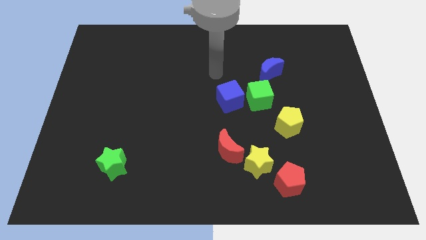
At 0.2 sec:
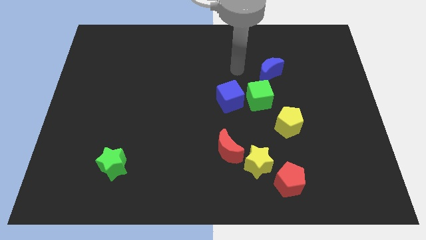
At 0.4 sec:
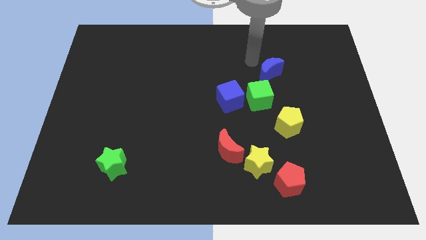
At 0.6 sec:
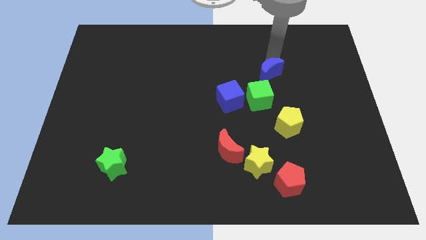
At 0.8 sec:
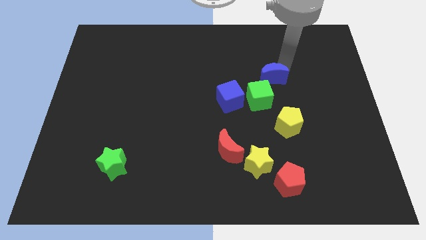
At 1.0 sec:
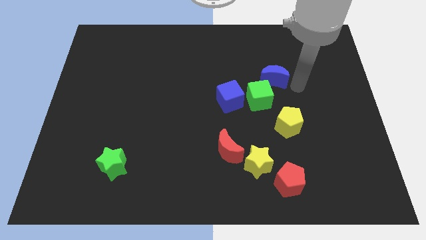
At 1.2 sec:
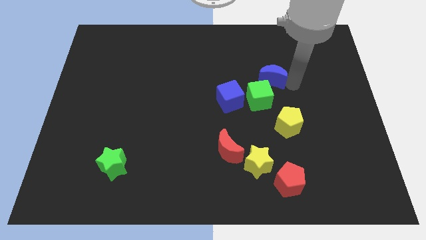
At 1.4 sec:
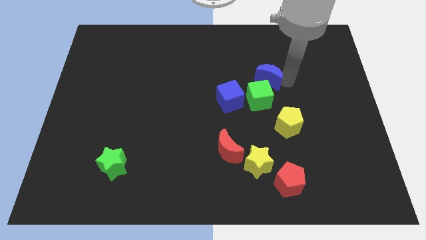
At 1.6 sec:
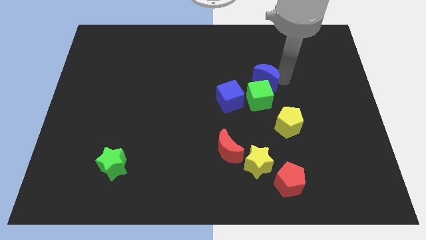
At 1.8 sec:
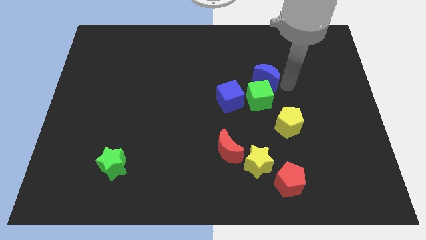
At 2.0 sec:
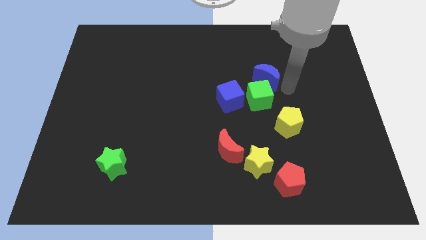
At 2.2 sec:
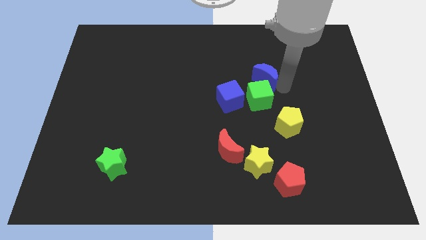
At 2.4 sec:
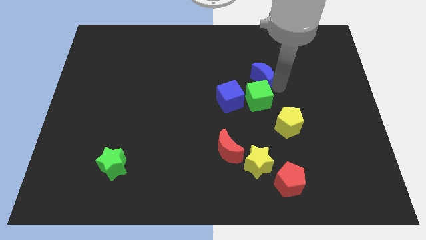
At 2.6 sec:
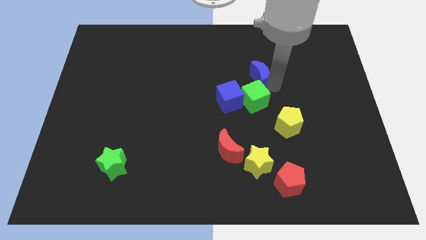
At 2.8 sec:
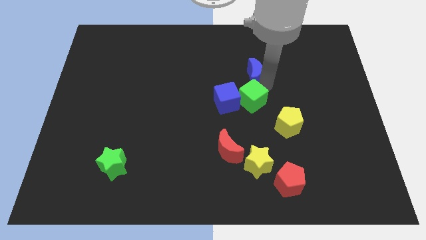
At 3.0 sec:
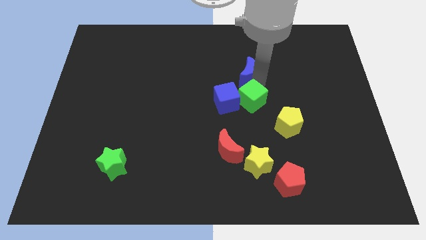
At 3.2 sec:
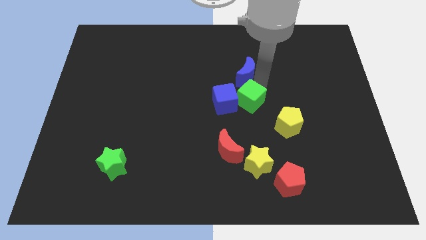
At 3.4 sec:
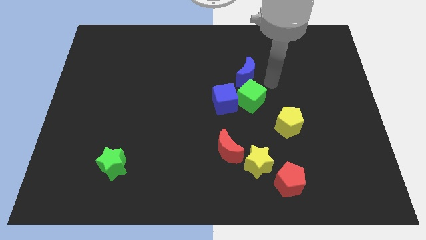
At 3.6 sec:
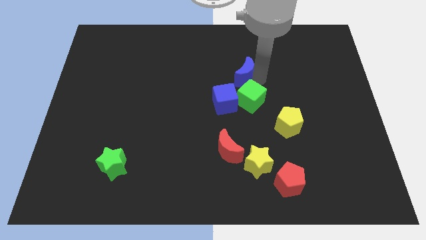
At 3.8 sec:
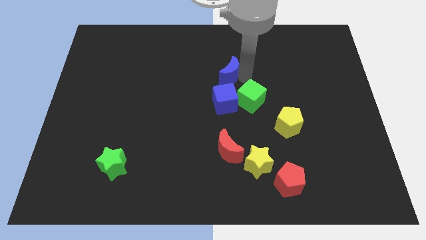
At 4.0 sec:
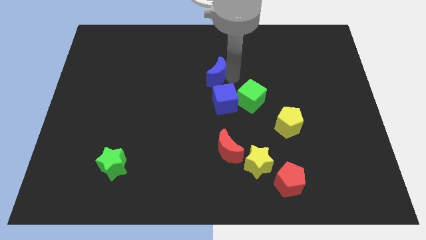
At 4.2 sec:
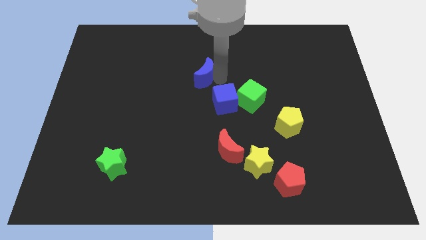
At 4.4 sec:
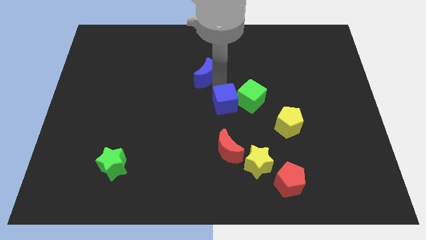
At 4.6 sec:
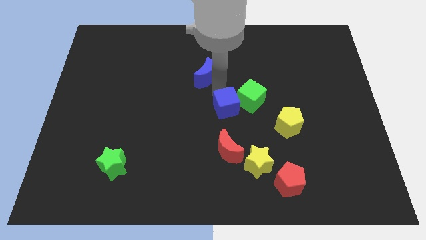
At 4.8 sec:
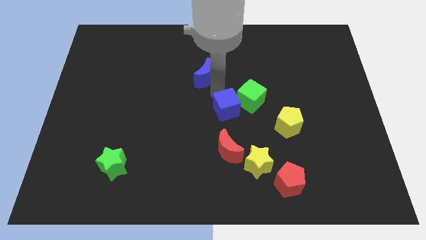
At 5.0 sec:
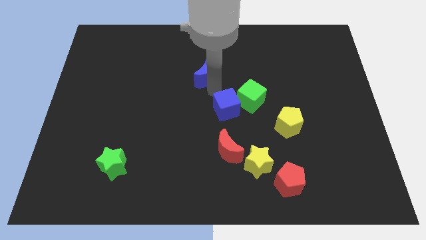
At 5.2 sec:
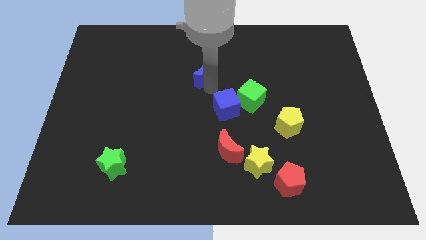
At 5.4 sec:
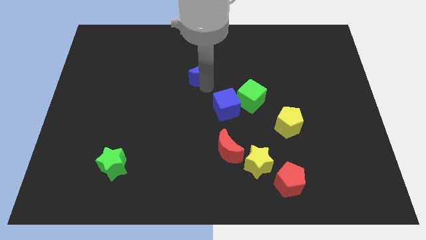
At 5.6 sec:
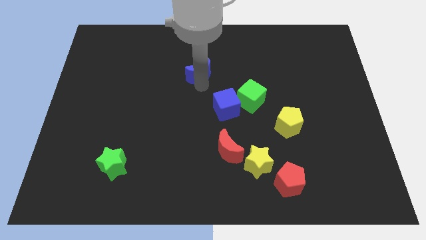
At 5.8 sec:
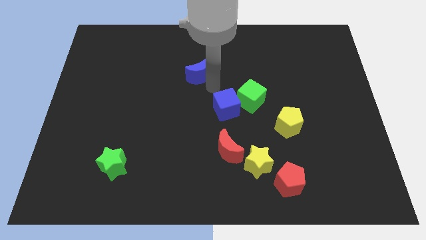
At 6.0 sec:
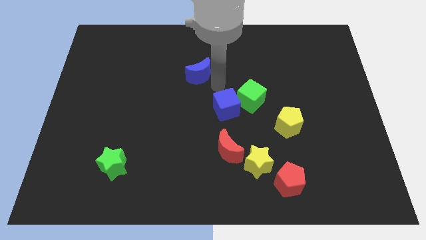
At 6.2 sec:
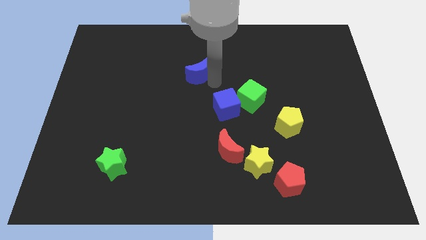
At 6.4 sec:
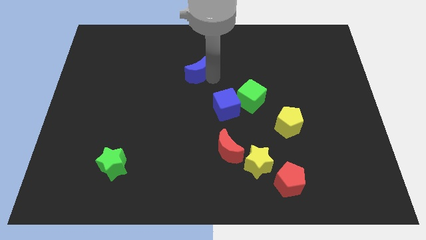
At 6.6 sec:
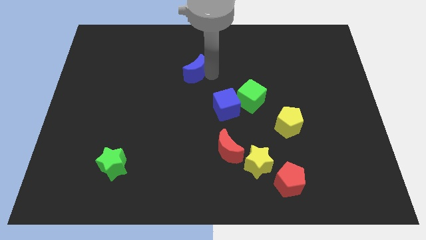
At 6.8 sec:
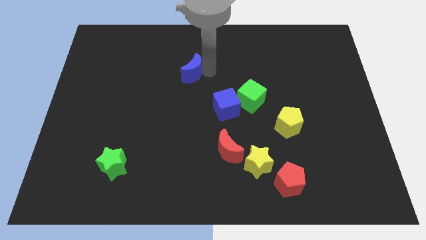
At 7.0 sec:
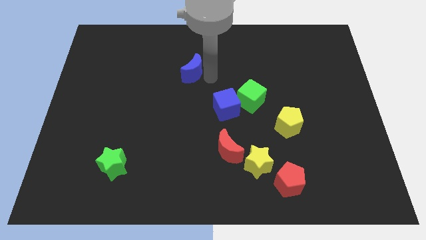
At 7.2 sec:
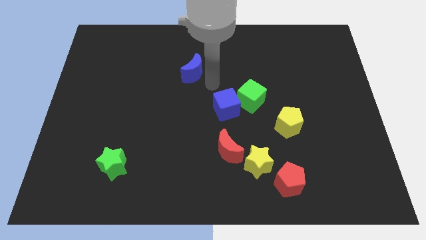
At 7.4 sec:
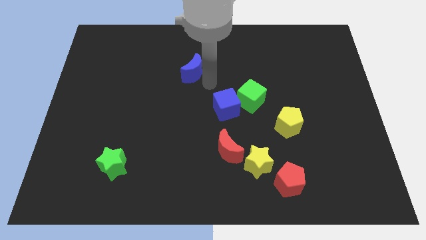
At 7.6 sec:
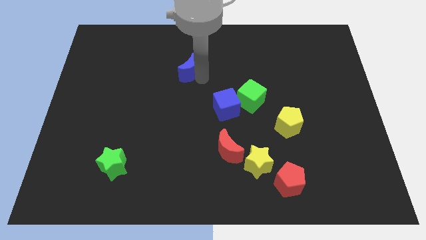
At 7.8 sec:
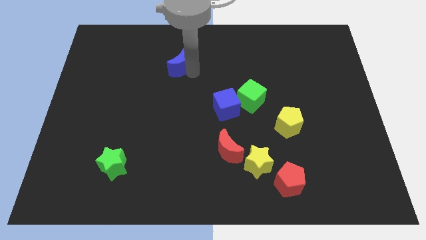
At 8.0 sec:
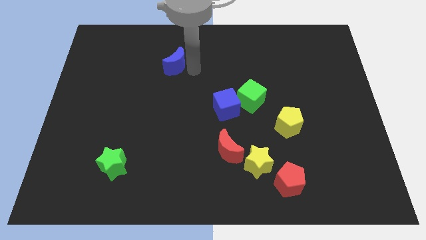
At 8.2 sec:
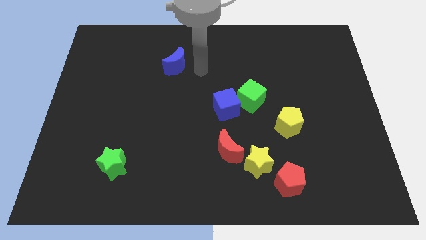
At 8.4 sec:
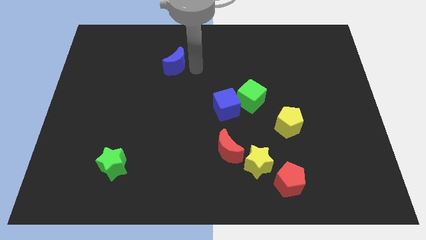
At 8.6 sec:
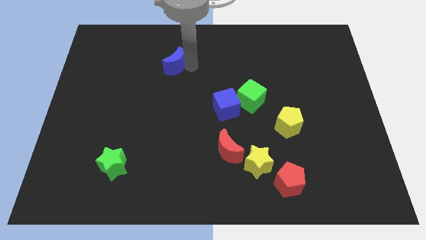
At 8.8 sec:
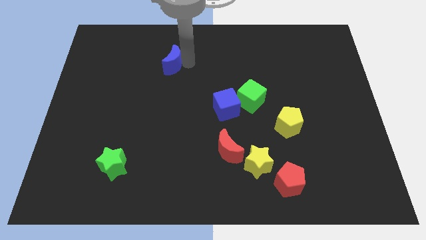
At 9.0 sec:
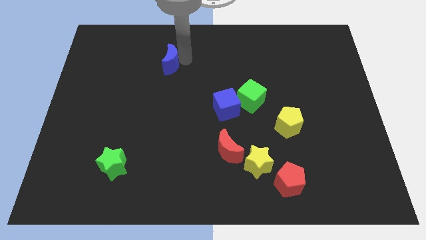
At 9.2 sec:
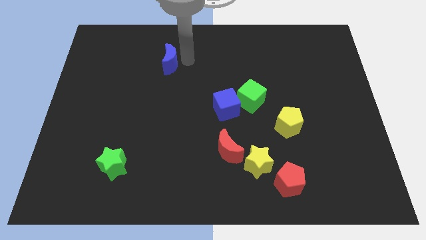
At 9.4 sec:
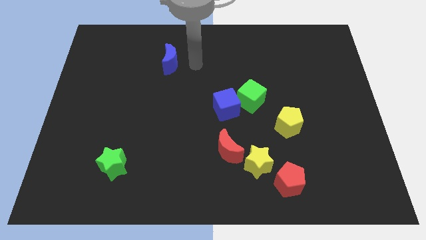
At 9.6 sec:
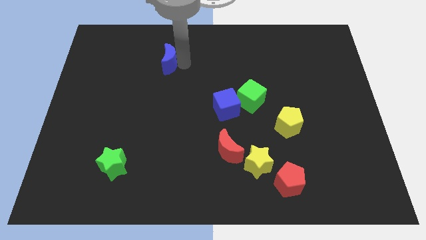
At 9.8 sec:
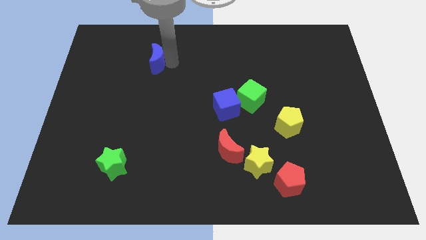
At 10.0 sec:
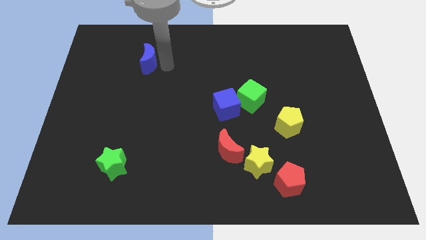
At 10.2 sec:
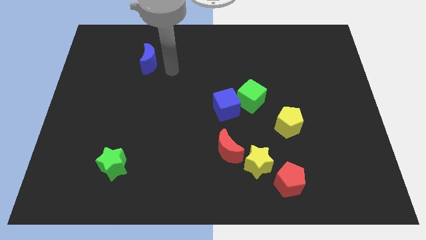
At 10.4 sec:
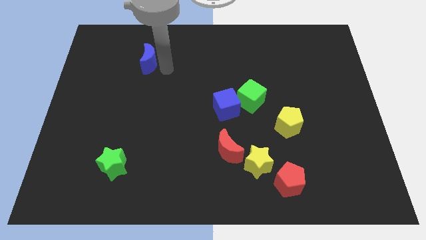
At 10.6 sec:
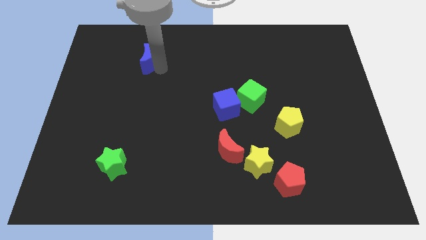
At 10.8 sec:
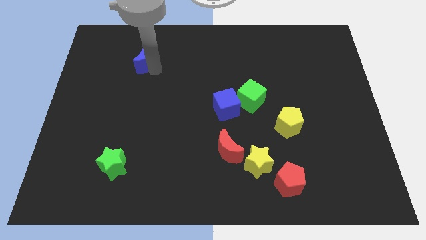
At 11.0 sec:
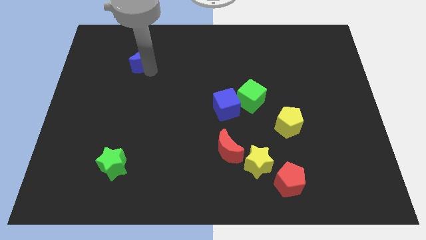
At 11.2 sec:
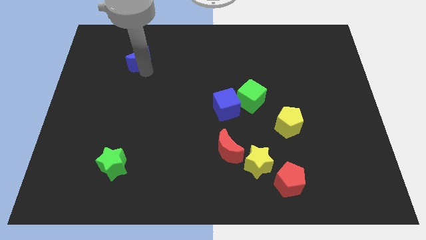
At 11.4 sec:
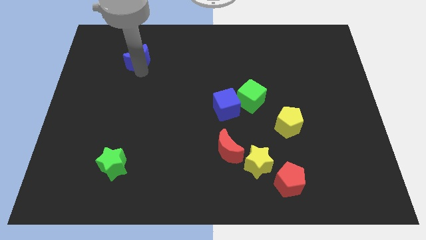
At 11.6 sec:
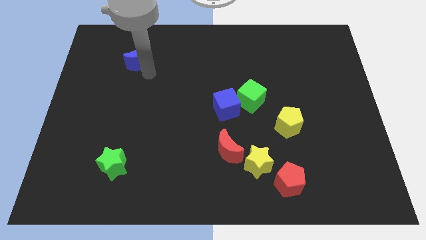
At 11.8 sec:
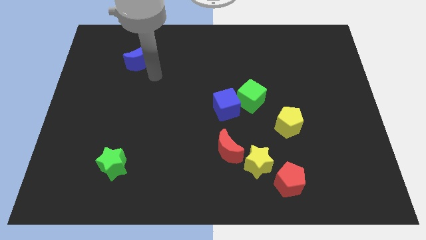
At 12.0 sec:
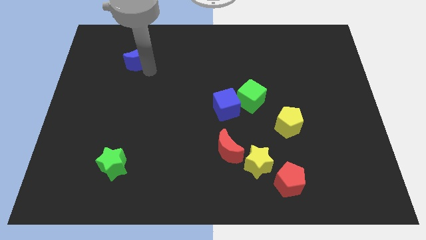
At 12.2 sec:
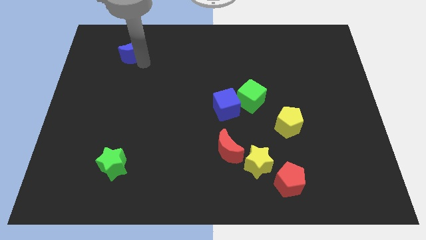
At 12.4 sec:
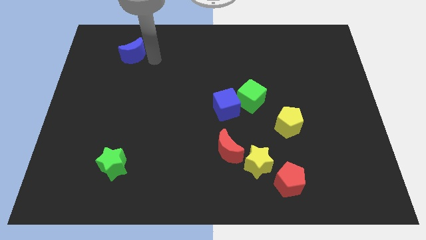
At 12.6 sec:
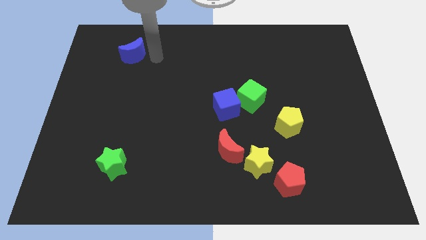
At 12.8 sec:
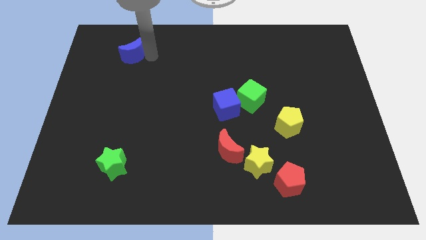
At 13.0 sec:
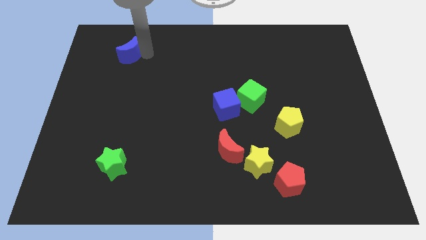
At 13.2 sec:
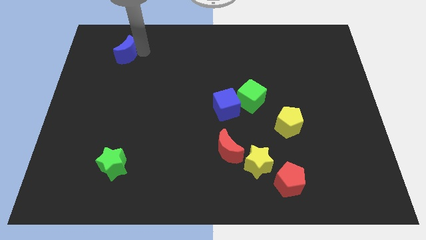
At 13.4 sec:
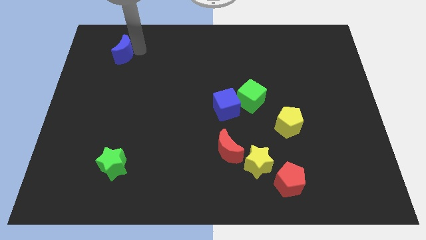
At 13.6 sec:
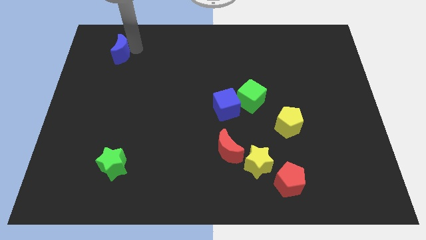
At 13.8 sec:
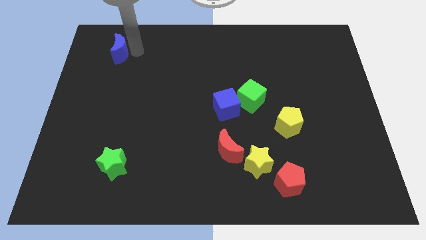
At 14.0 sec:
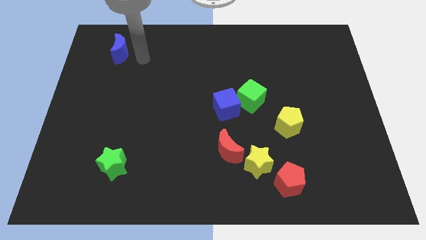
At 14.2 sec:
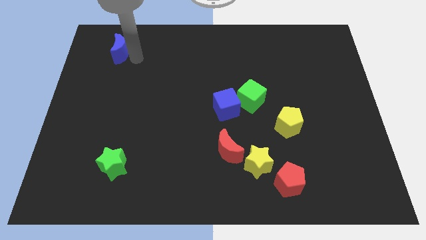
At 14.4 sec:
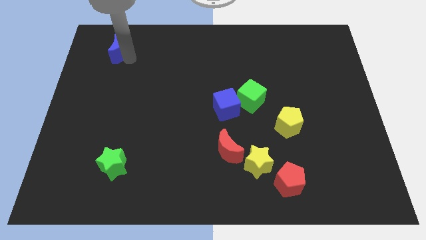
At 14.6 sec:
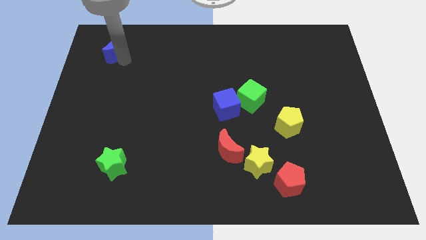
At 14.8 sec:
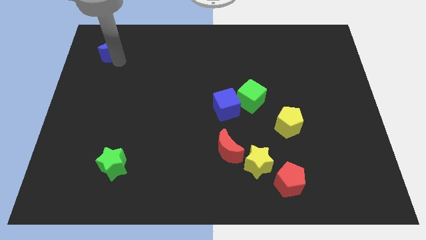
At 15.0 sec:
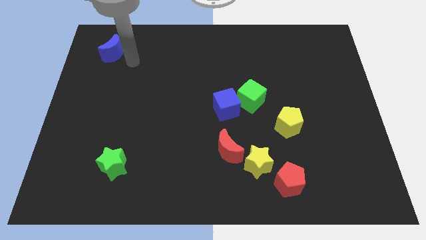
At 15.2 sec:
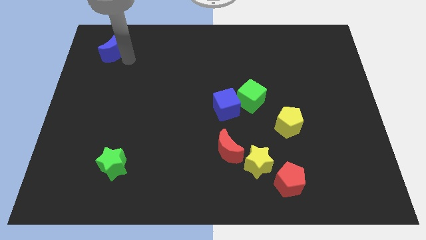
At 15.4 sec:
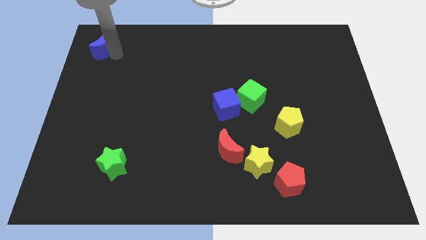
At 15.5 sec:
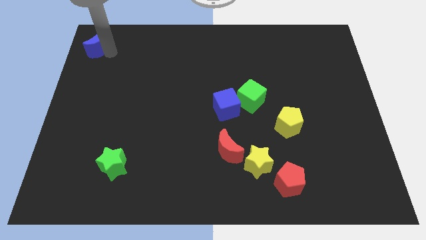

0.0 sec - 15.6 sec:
put the blue moon to the top left
